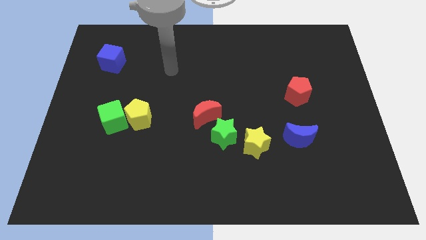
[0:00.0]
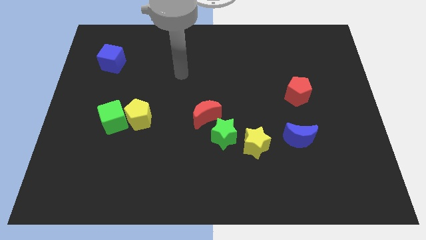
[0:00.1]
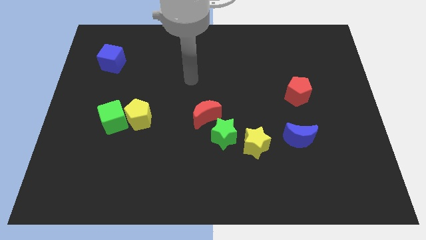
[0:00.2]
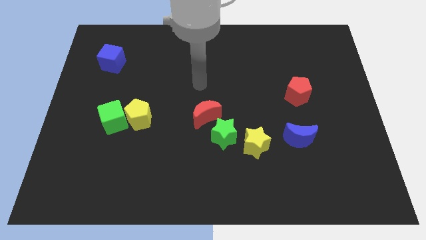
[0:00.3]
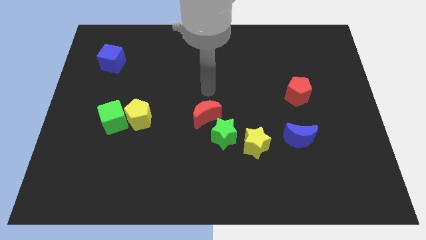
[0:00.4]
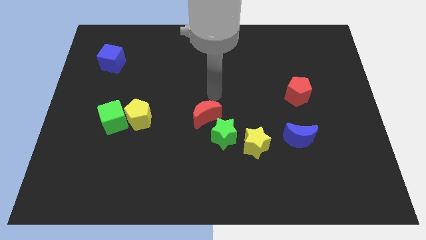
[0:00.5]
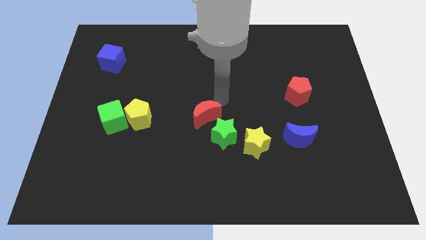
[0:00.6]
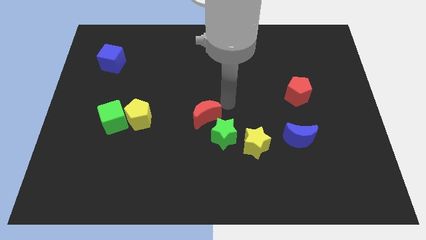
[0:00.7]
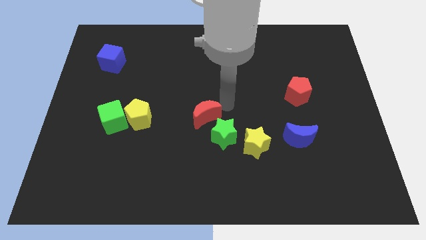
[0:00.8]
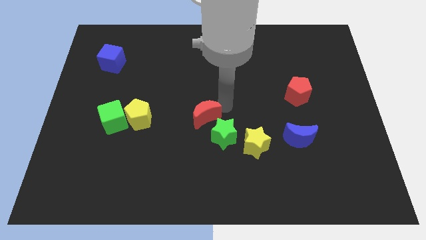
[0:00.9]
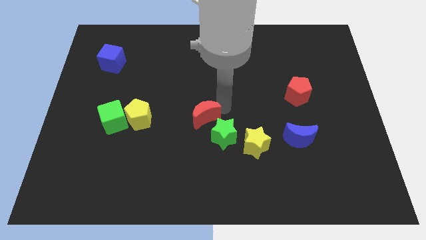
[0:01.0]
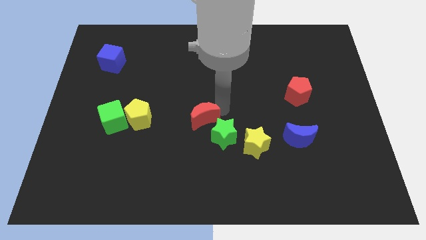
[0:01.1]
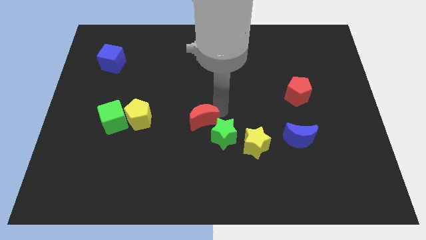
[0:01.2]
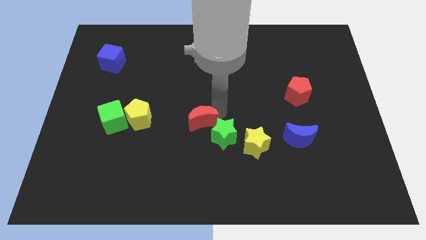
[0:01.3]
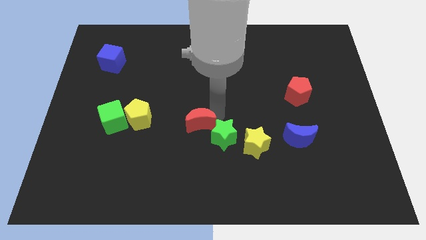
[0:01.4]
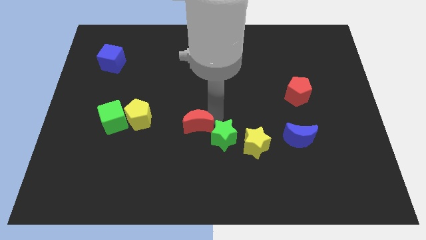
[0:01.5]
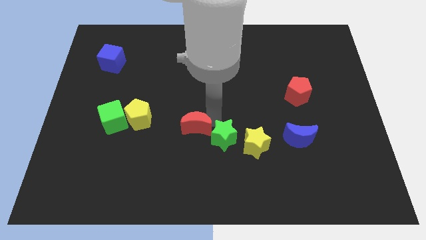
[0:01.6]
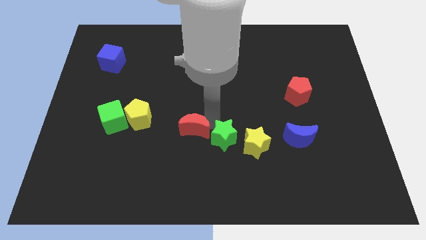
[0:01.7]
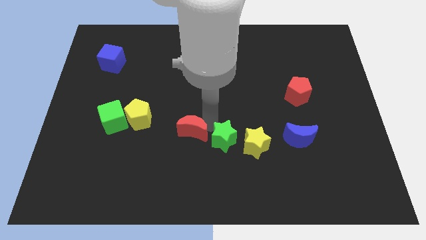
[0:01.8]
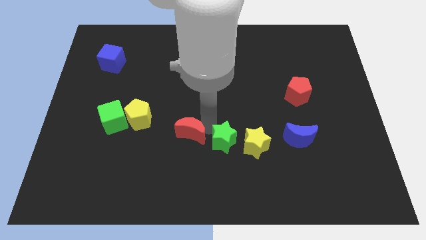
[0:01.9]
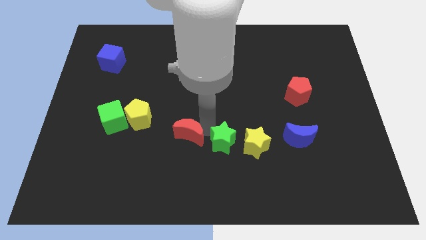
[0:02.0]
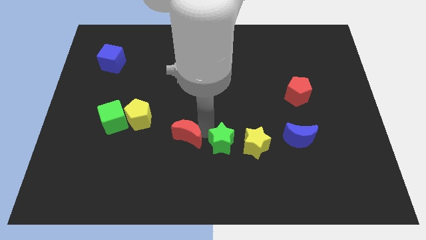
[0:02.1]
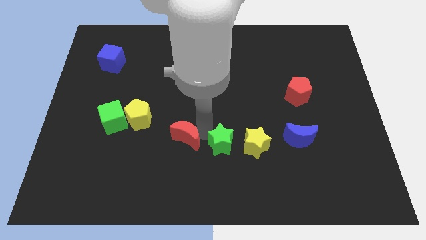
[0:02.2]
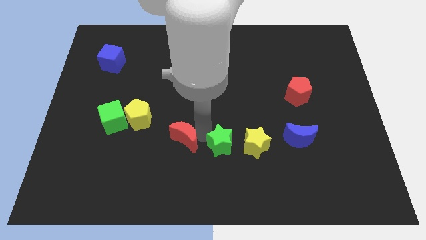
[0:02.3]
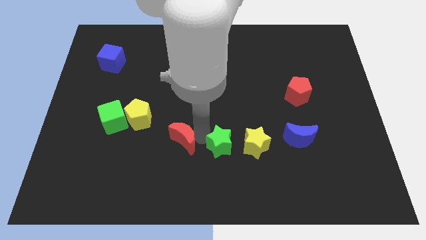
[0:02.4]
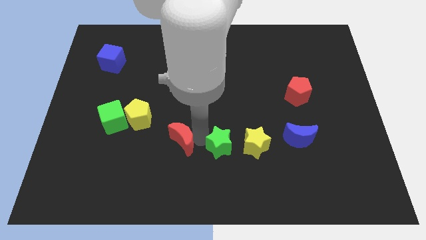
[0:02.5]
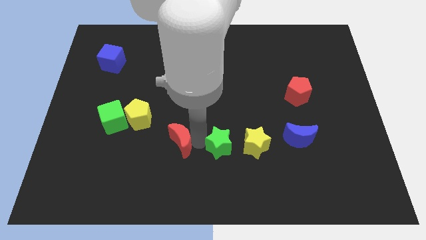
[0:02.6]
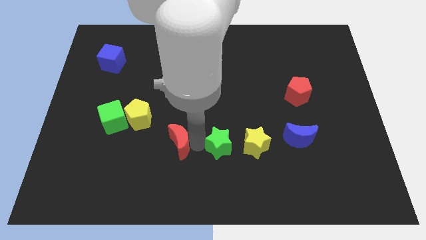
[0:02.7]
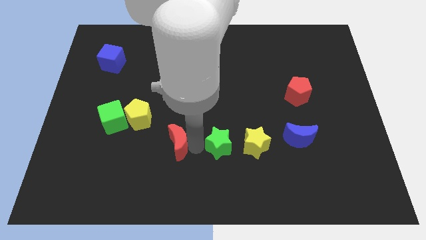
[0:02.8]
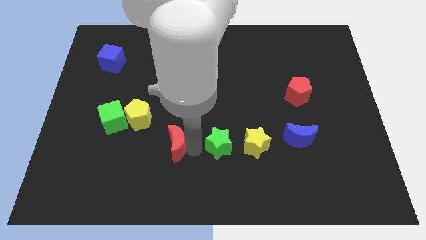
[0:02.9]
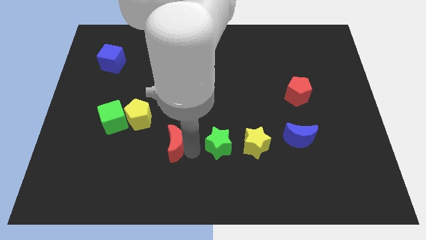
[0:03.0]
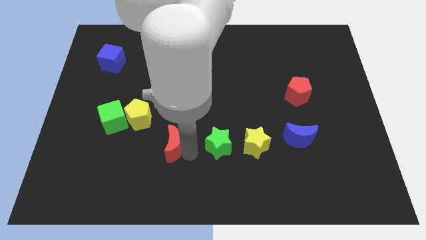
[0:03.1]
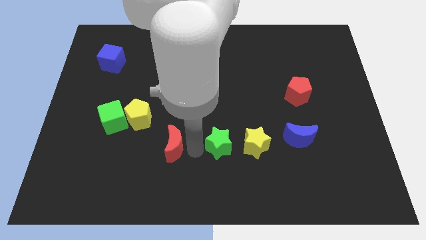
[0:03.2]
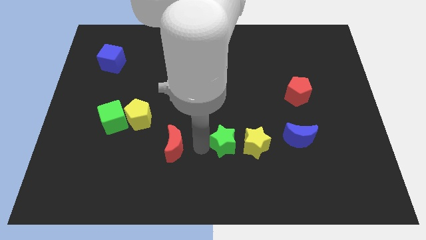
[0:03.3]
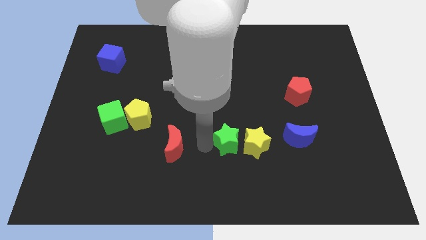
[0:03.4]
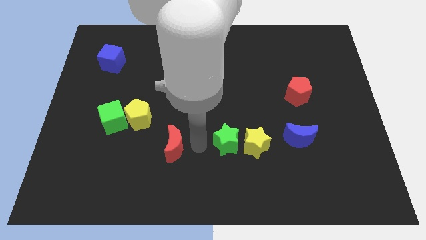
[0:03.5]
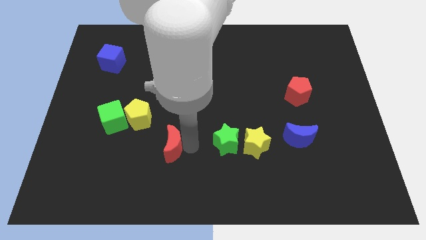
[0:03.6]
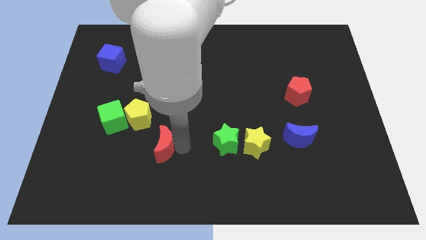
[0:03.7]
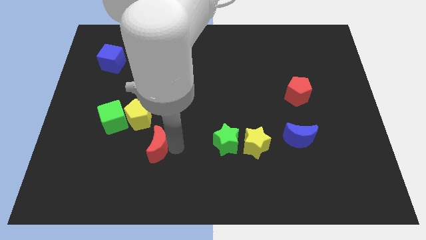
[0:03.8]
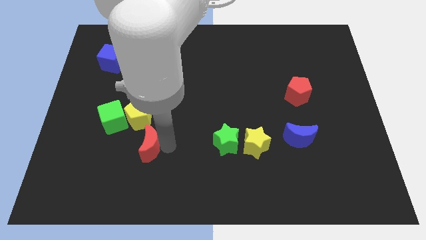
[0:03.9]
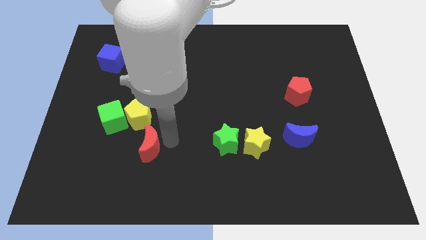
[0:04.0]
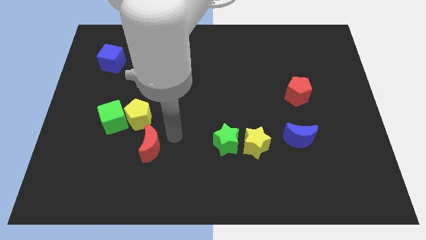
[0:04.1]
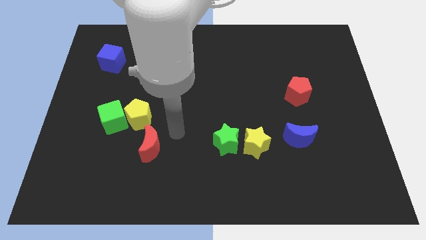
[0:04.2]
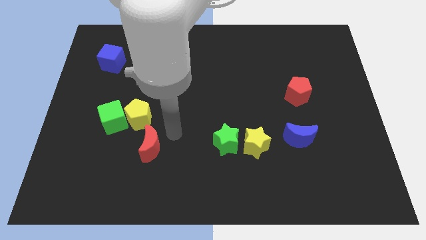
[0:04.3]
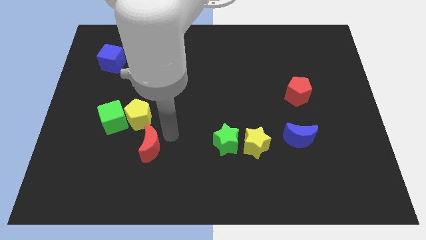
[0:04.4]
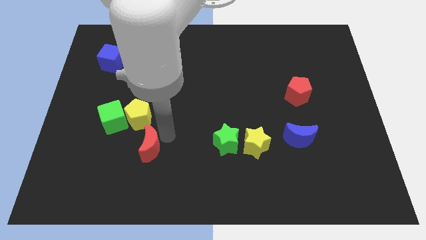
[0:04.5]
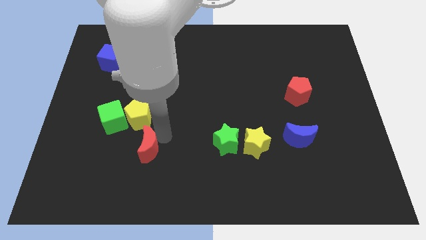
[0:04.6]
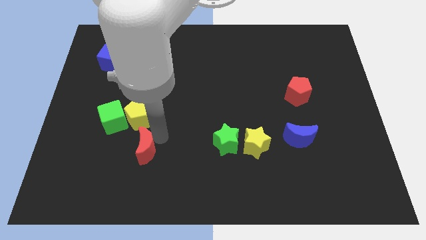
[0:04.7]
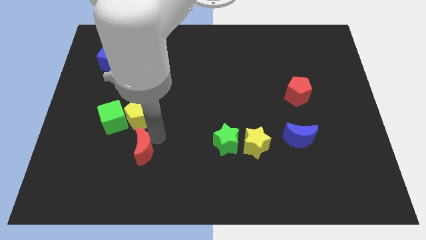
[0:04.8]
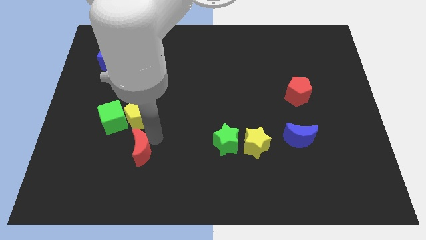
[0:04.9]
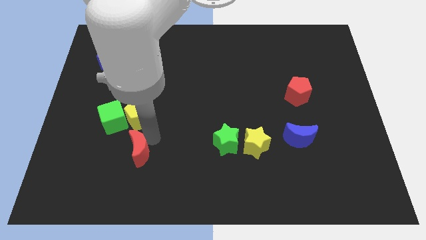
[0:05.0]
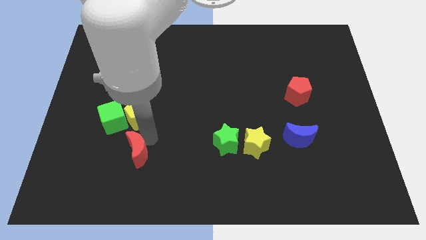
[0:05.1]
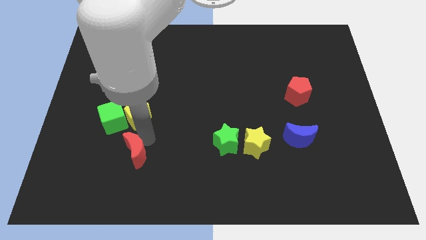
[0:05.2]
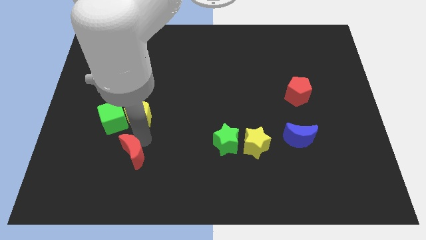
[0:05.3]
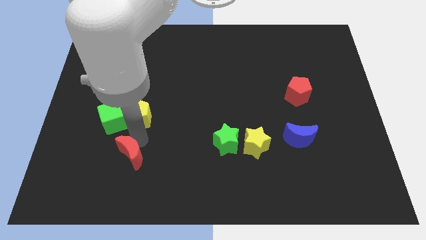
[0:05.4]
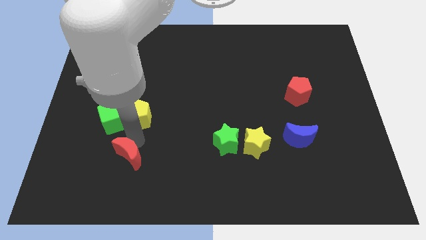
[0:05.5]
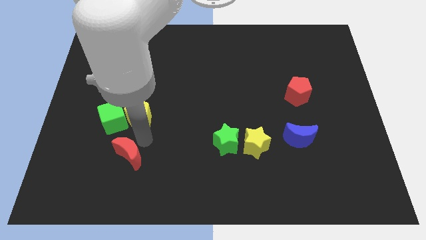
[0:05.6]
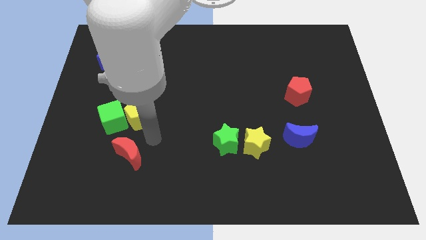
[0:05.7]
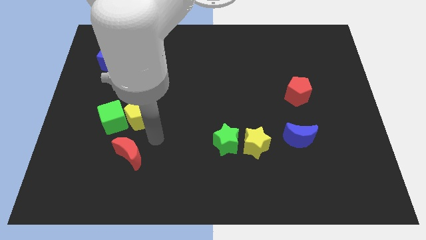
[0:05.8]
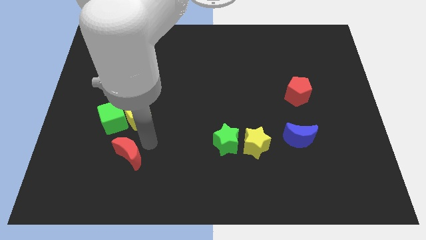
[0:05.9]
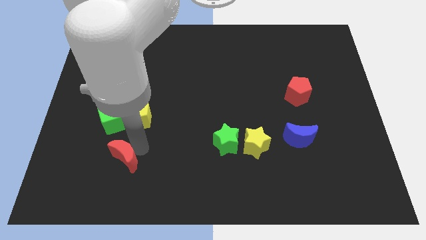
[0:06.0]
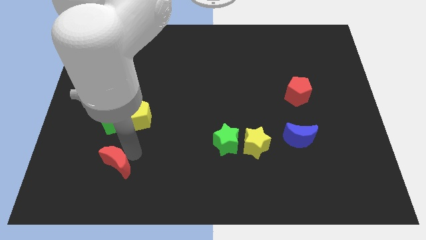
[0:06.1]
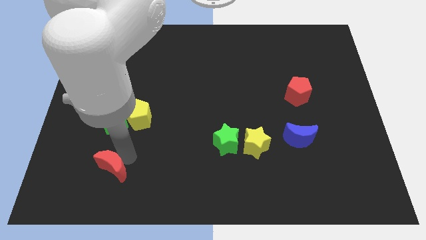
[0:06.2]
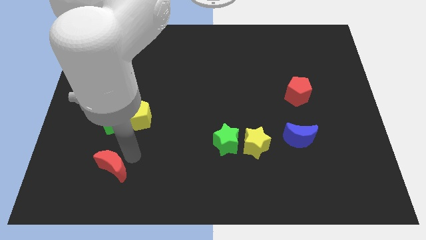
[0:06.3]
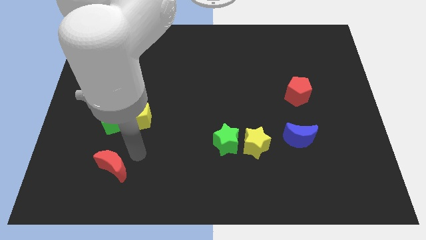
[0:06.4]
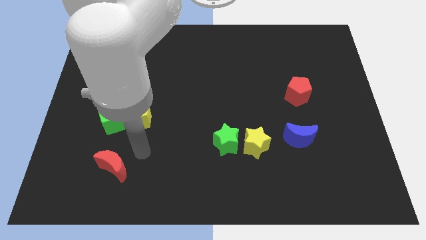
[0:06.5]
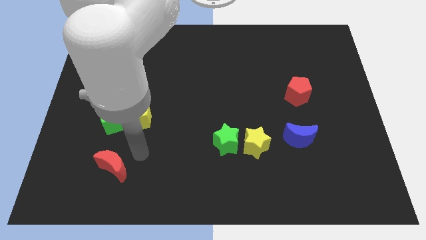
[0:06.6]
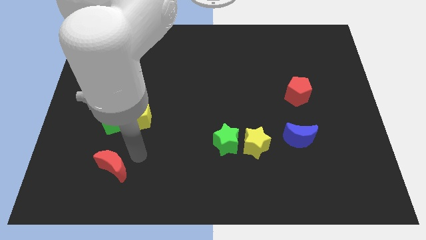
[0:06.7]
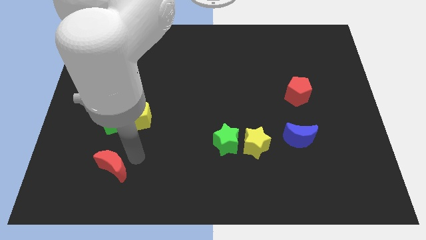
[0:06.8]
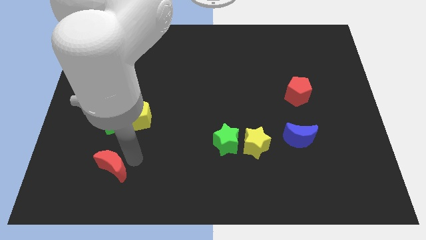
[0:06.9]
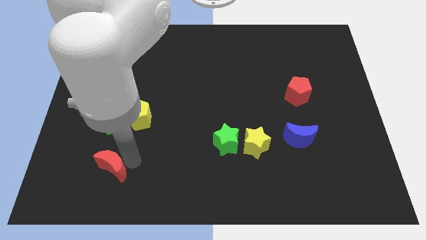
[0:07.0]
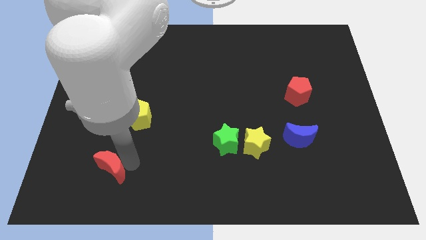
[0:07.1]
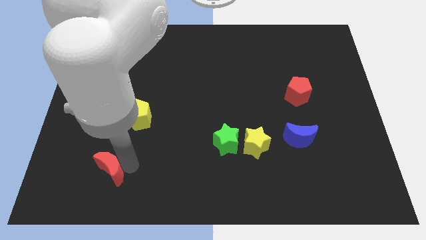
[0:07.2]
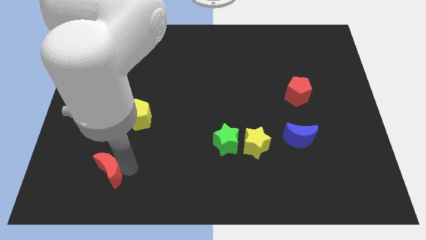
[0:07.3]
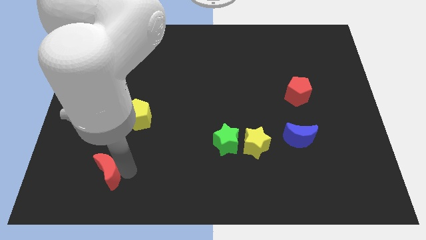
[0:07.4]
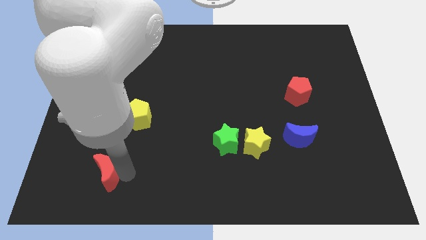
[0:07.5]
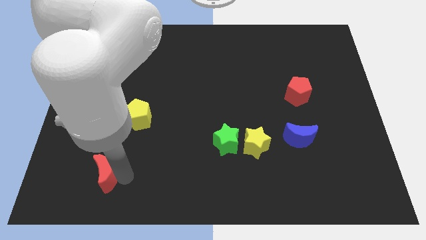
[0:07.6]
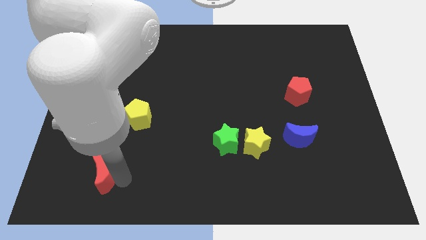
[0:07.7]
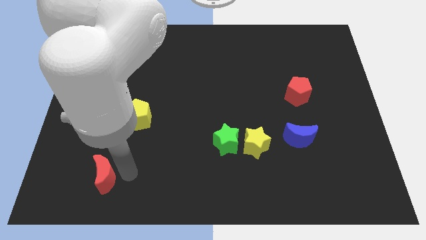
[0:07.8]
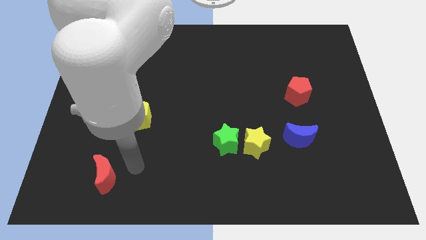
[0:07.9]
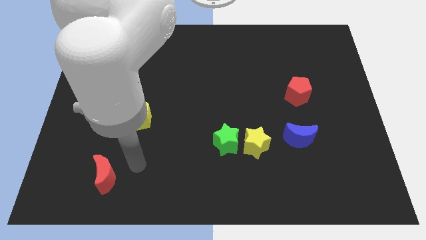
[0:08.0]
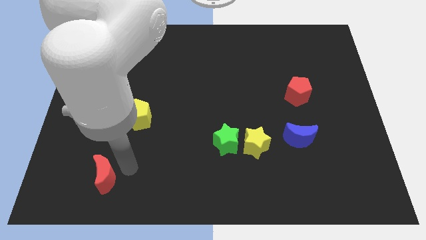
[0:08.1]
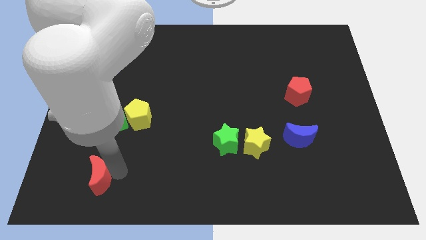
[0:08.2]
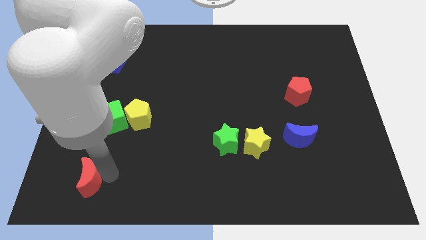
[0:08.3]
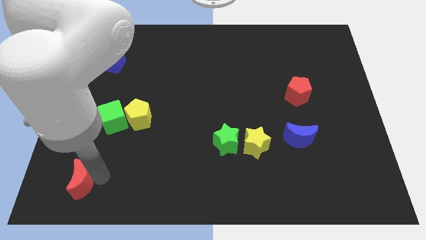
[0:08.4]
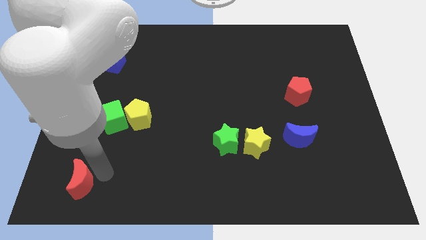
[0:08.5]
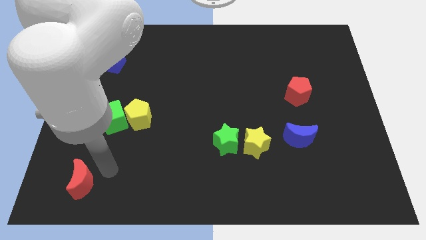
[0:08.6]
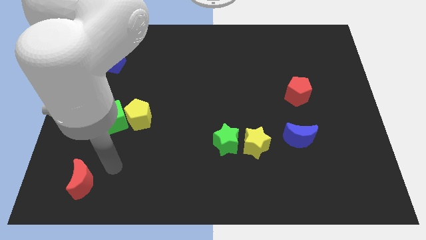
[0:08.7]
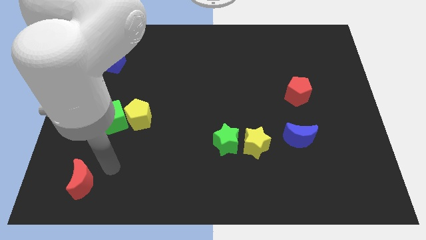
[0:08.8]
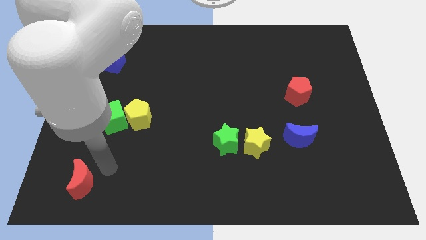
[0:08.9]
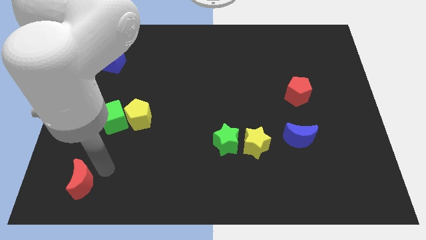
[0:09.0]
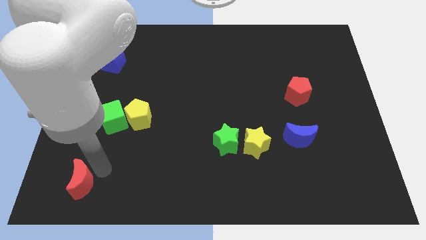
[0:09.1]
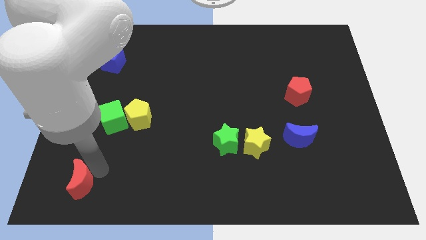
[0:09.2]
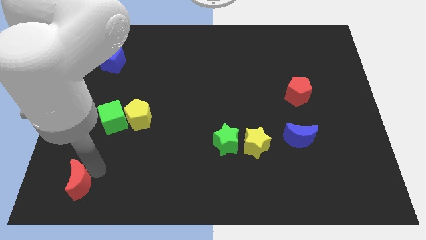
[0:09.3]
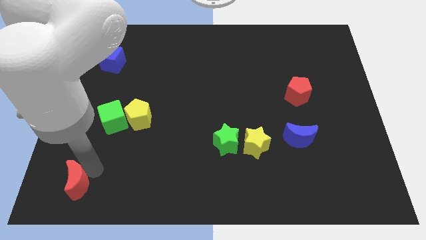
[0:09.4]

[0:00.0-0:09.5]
push the red moon to the bottom left of the board
